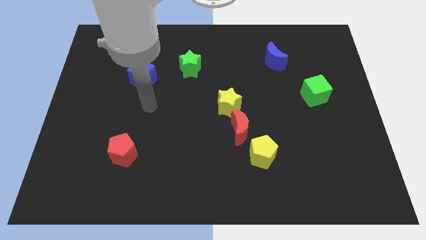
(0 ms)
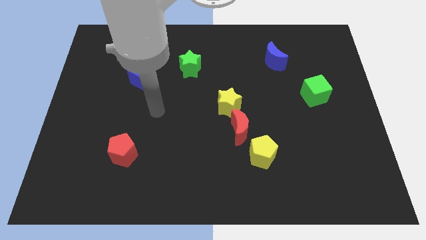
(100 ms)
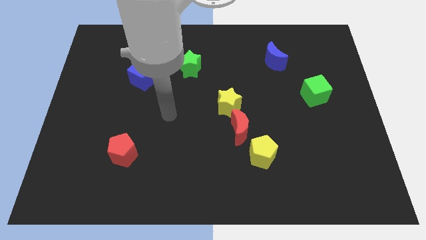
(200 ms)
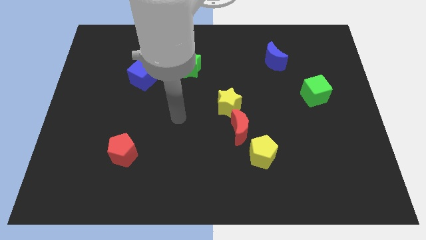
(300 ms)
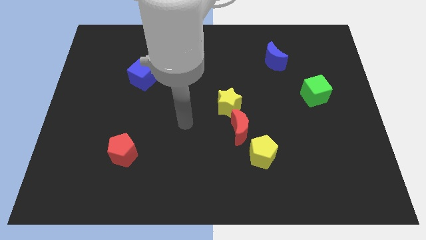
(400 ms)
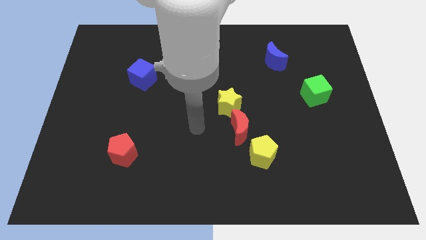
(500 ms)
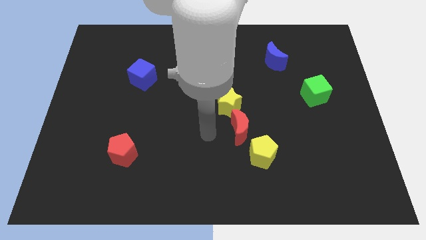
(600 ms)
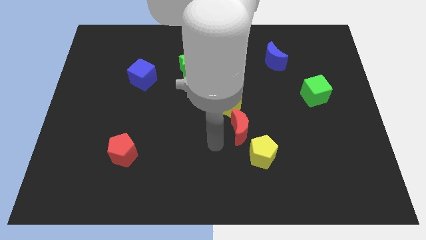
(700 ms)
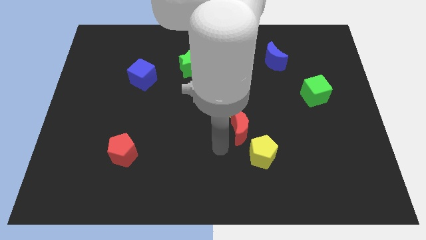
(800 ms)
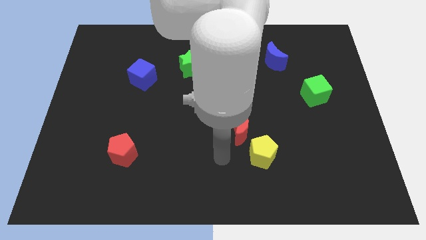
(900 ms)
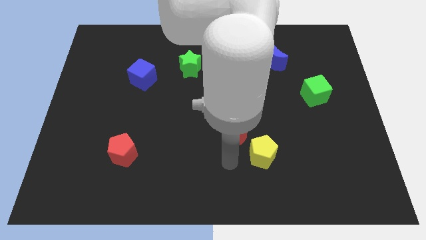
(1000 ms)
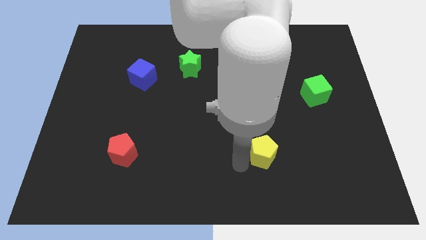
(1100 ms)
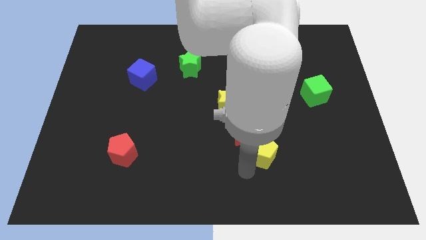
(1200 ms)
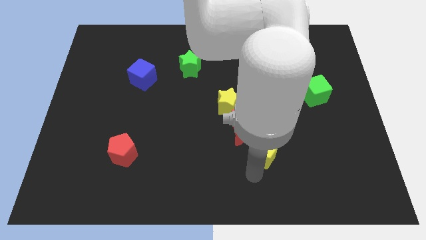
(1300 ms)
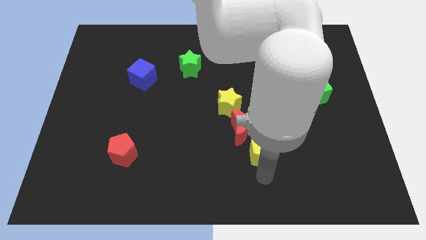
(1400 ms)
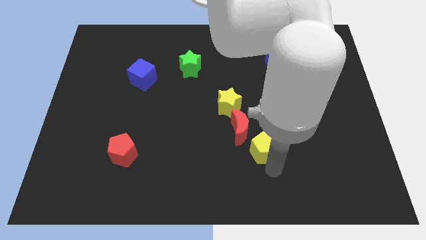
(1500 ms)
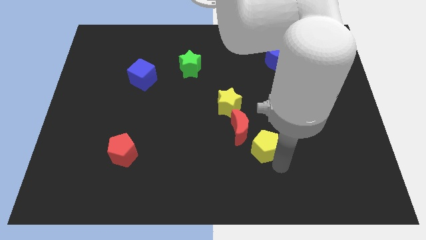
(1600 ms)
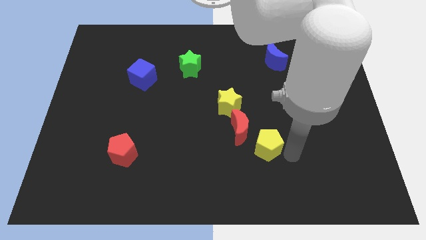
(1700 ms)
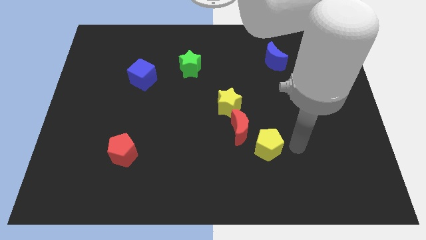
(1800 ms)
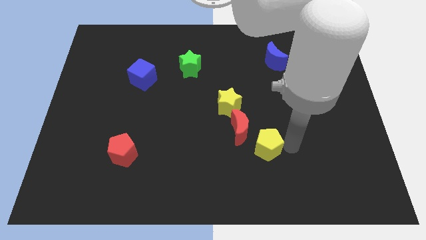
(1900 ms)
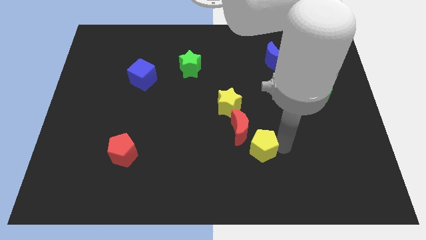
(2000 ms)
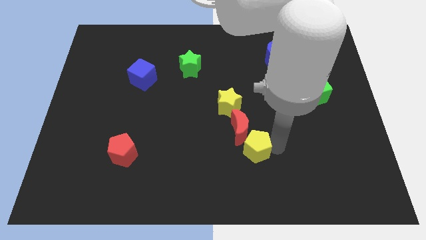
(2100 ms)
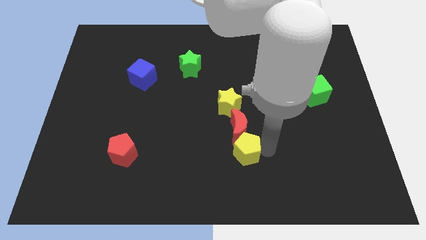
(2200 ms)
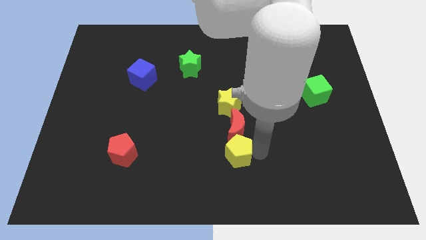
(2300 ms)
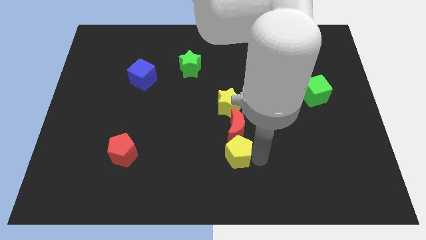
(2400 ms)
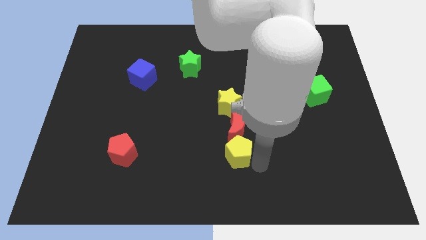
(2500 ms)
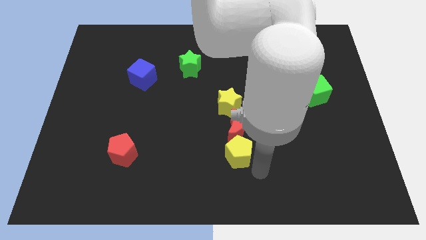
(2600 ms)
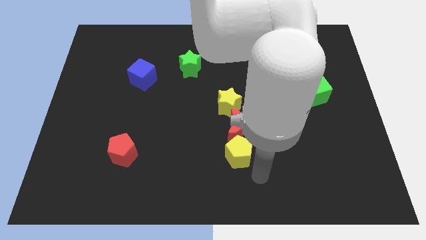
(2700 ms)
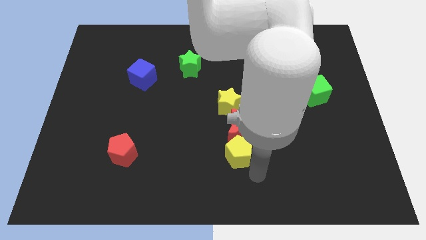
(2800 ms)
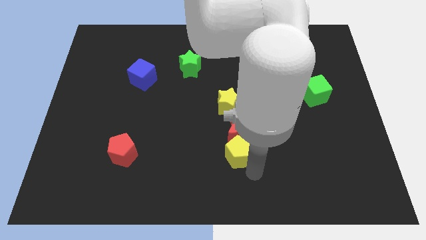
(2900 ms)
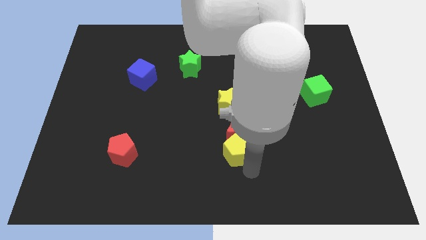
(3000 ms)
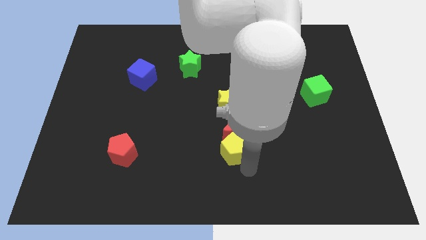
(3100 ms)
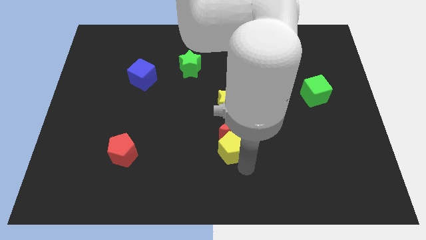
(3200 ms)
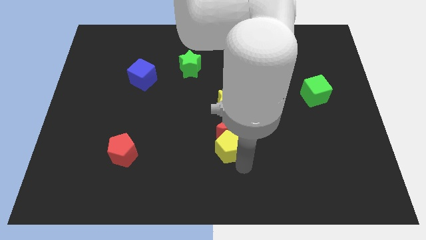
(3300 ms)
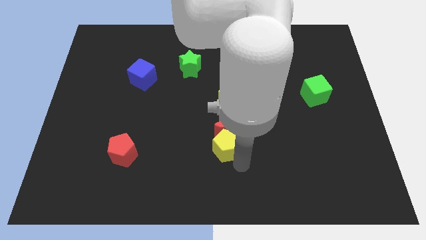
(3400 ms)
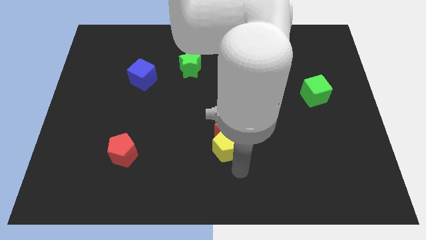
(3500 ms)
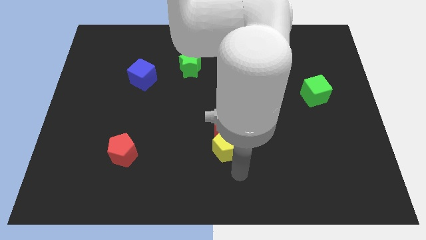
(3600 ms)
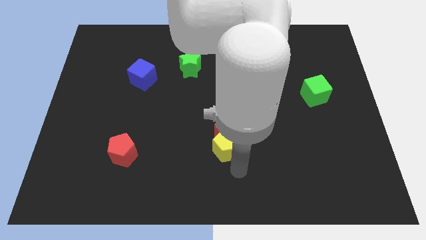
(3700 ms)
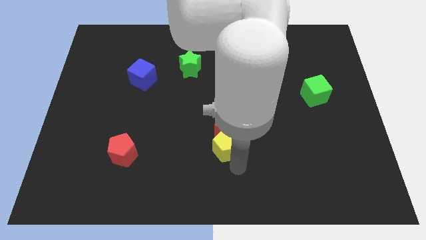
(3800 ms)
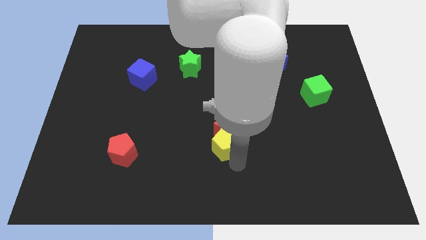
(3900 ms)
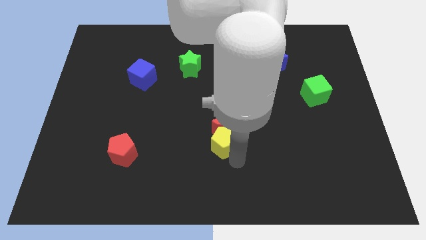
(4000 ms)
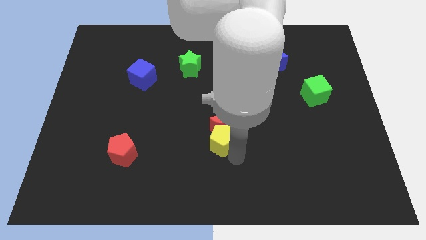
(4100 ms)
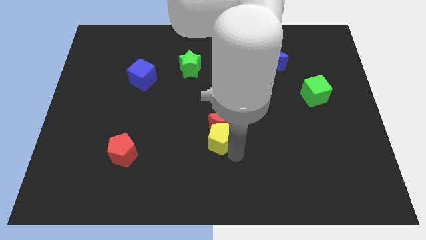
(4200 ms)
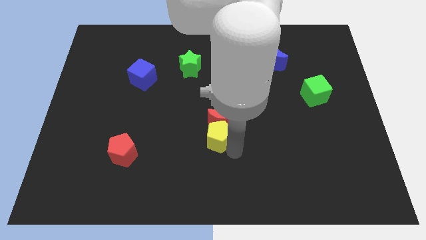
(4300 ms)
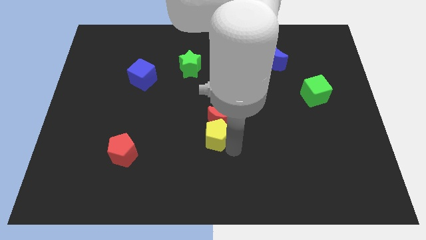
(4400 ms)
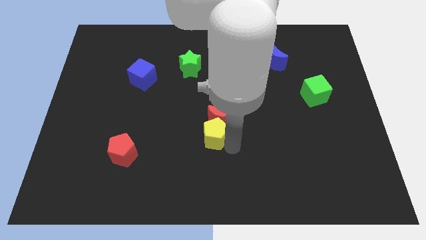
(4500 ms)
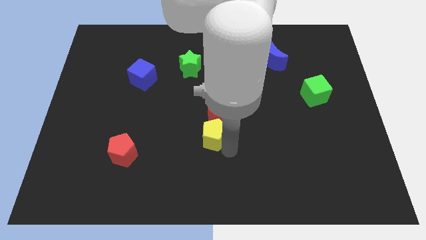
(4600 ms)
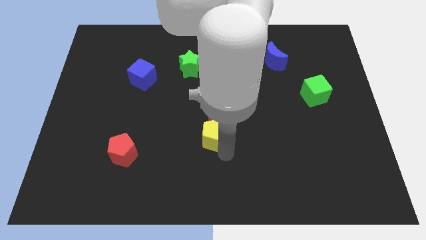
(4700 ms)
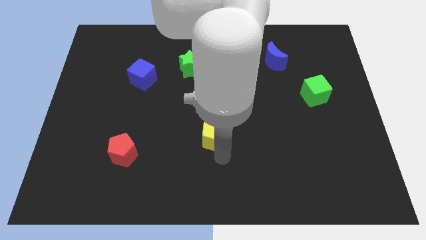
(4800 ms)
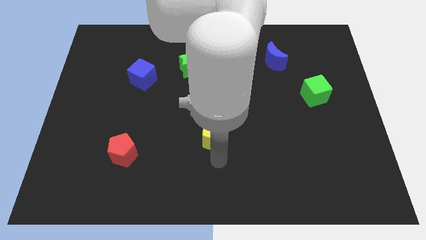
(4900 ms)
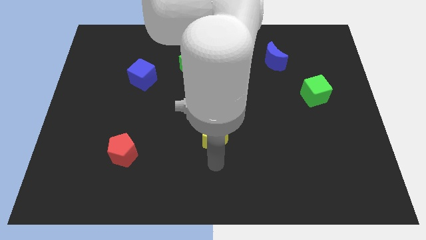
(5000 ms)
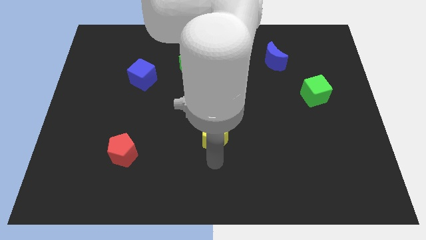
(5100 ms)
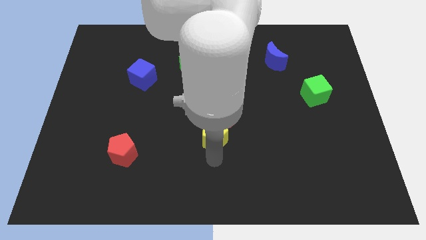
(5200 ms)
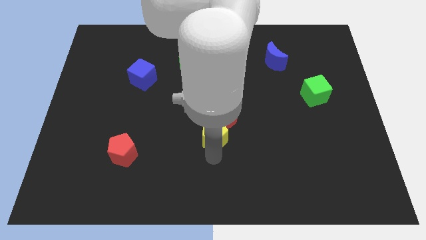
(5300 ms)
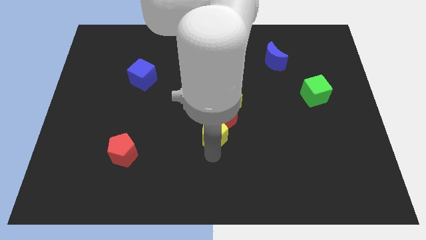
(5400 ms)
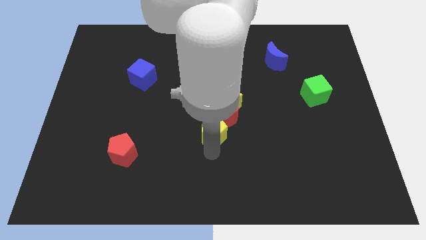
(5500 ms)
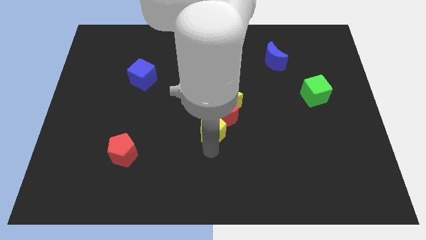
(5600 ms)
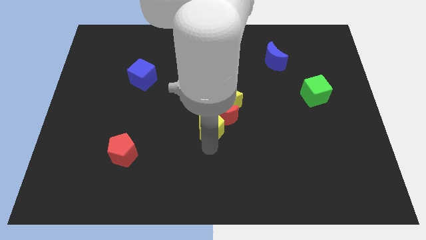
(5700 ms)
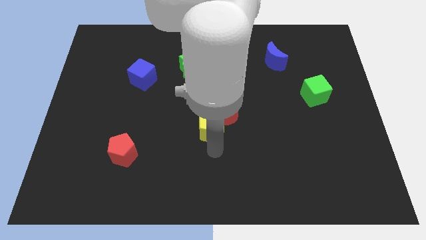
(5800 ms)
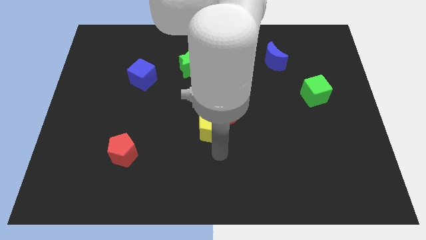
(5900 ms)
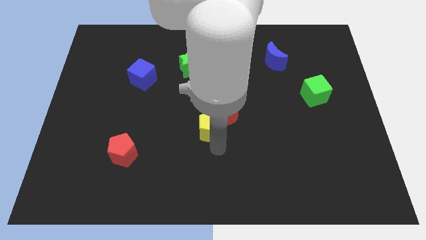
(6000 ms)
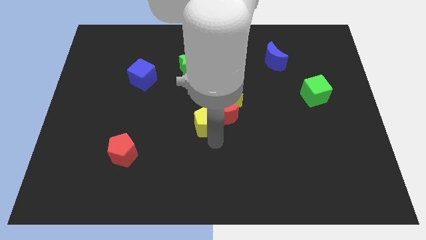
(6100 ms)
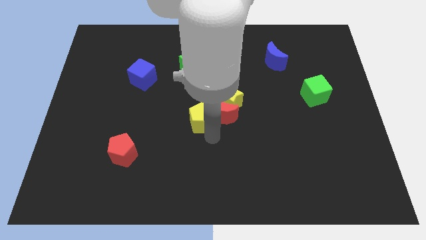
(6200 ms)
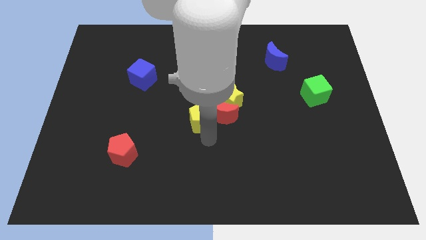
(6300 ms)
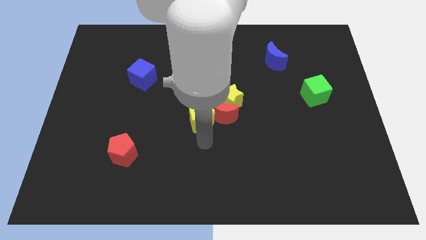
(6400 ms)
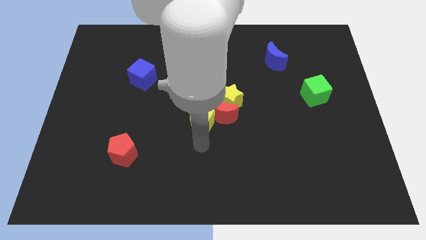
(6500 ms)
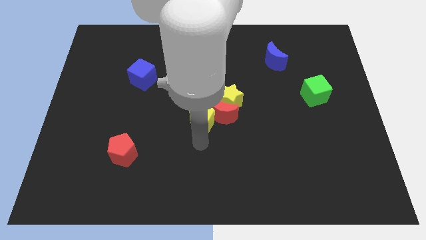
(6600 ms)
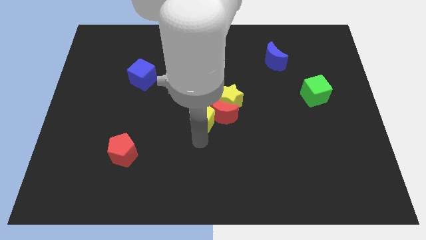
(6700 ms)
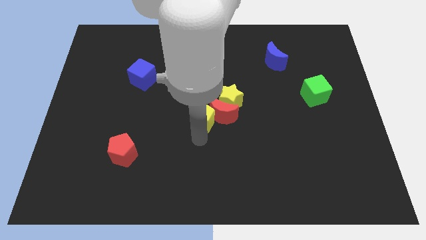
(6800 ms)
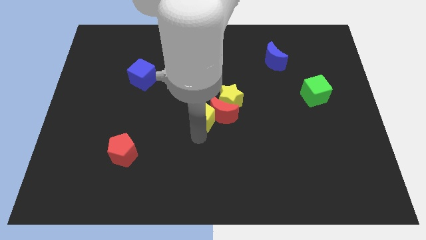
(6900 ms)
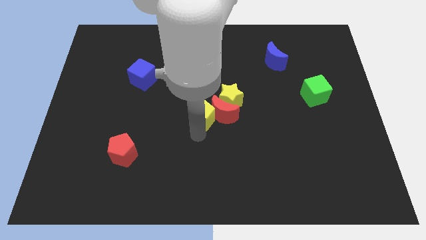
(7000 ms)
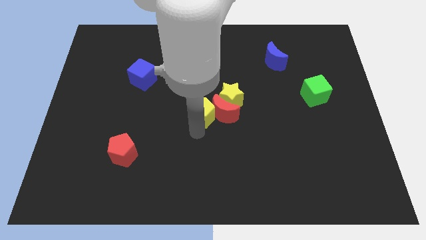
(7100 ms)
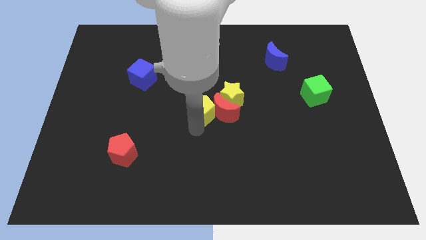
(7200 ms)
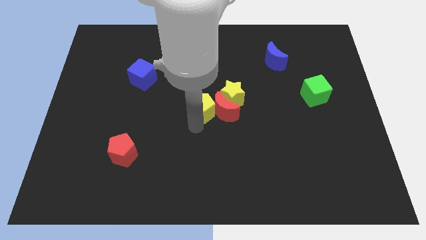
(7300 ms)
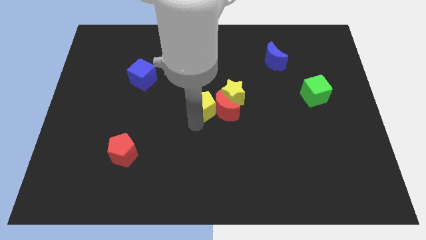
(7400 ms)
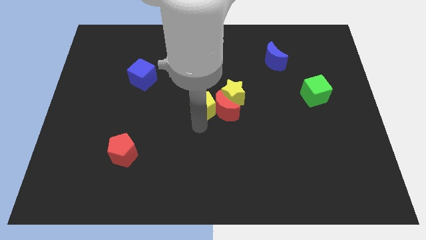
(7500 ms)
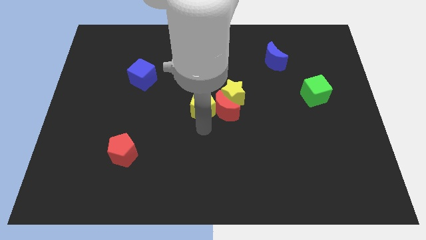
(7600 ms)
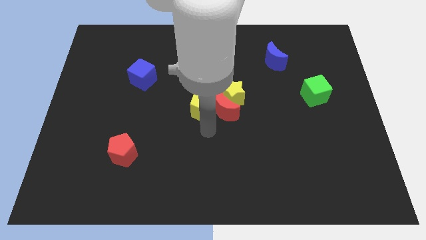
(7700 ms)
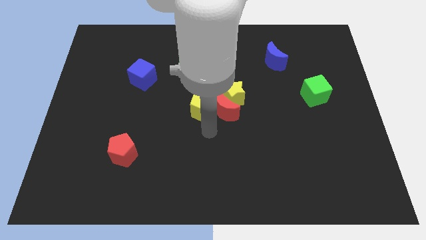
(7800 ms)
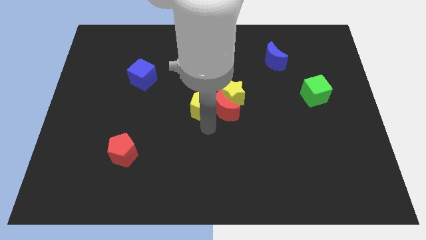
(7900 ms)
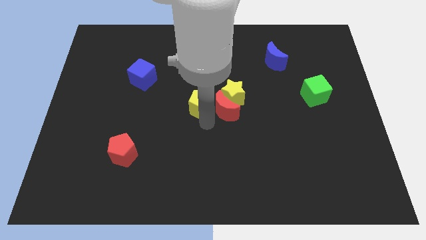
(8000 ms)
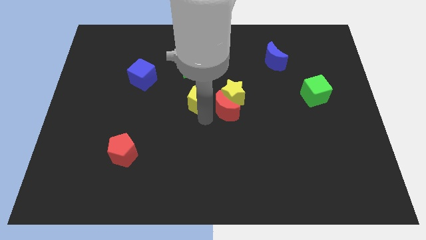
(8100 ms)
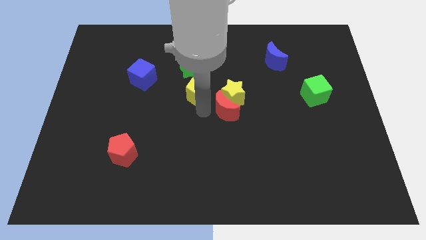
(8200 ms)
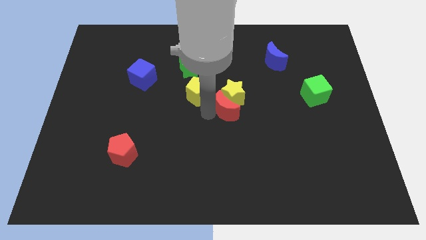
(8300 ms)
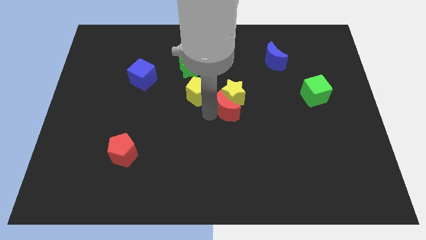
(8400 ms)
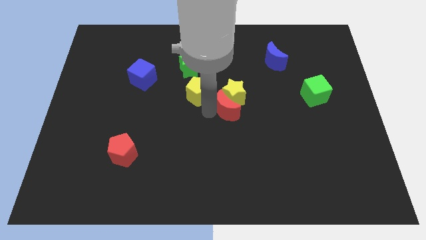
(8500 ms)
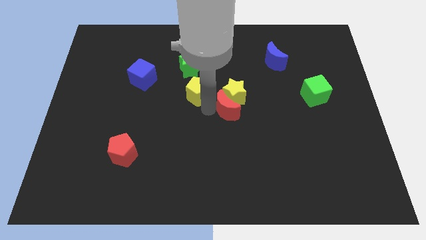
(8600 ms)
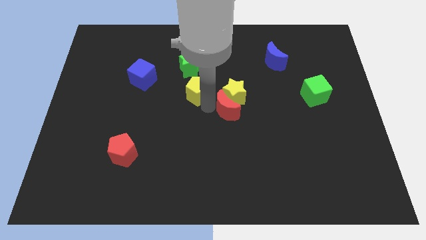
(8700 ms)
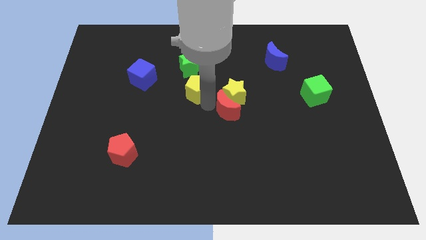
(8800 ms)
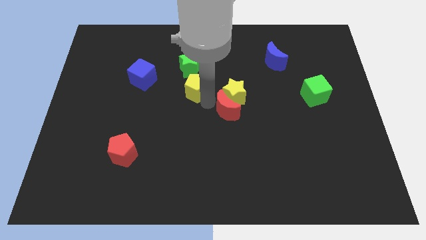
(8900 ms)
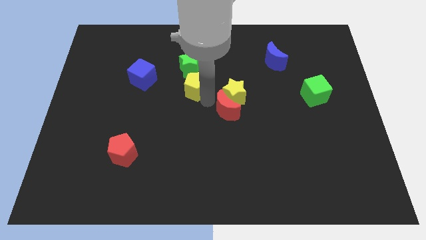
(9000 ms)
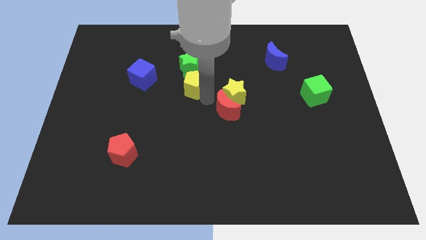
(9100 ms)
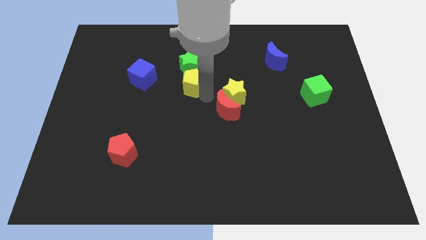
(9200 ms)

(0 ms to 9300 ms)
move the yellow pentagon towards the green star
